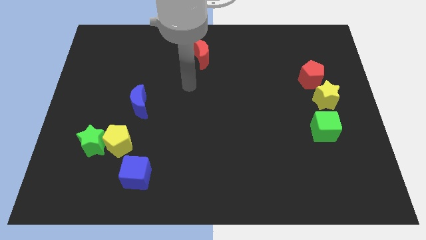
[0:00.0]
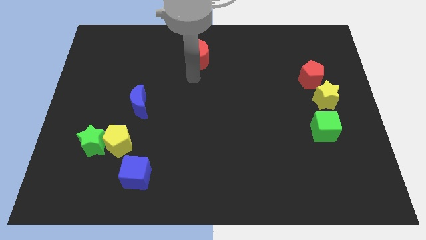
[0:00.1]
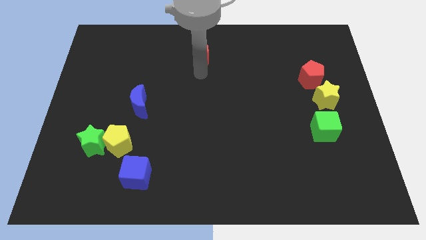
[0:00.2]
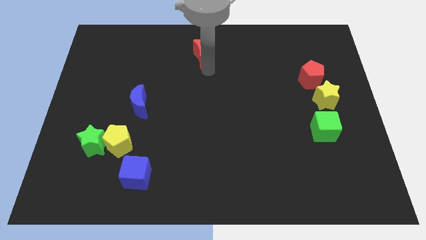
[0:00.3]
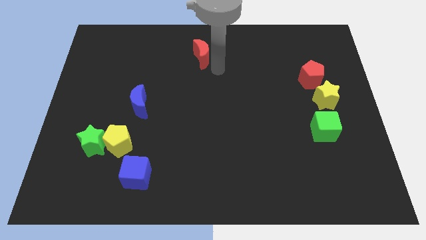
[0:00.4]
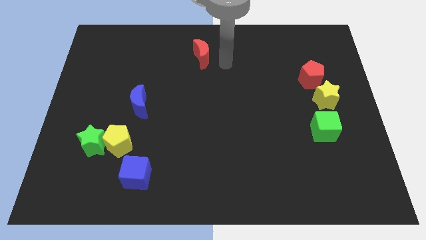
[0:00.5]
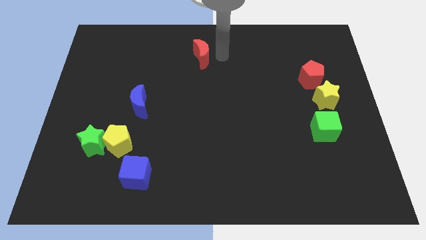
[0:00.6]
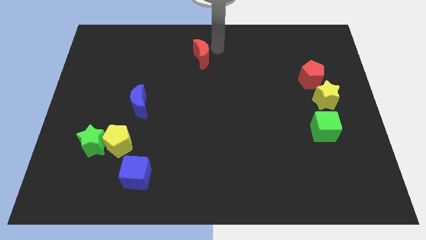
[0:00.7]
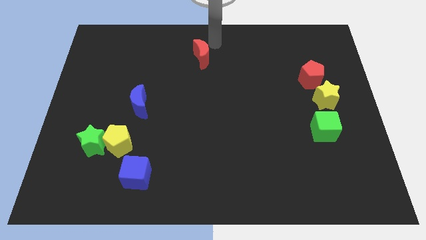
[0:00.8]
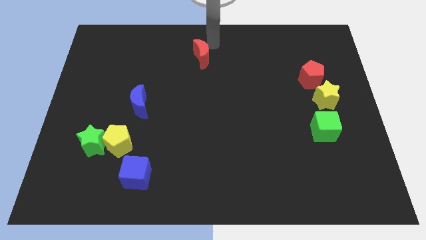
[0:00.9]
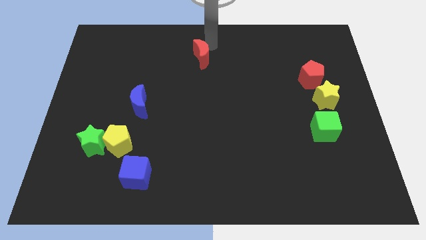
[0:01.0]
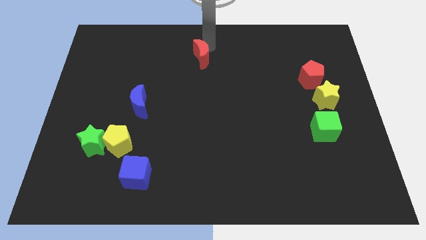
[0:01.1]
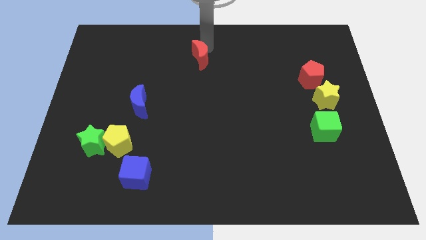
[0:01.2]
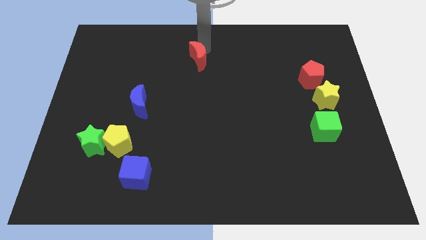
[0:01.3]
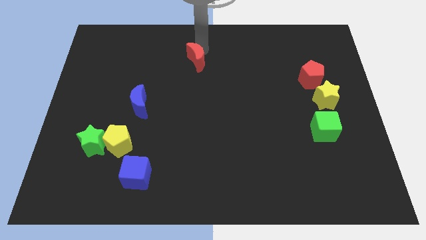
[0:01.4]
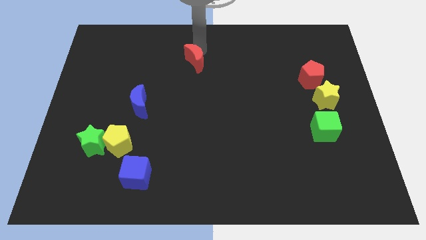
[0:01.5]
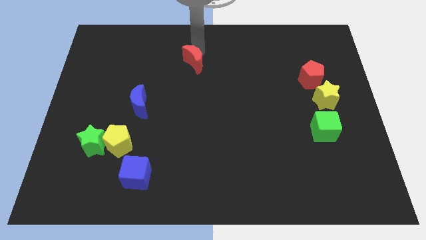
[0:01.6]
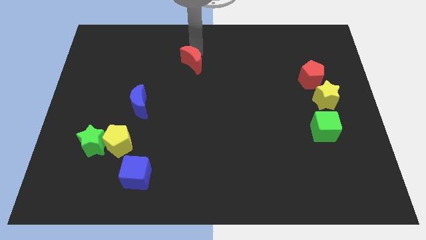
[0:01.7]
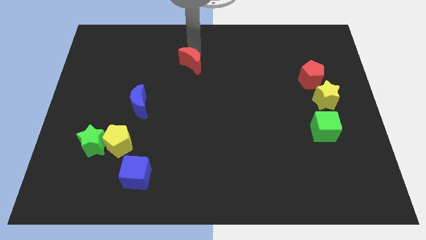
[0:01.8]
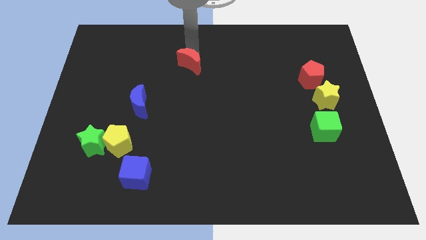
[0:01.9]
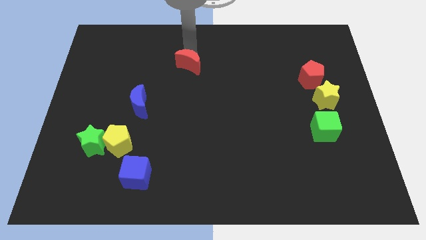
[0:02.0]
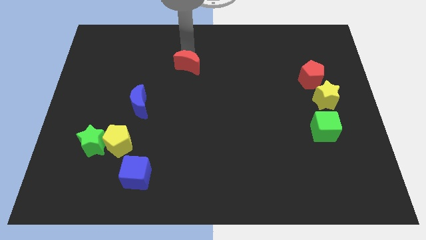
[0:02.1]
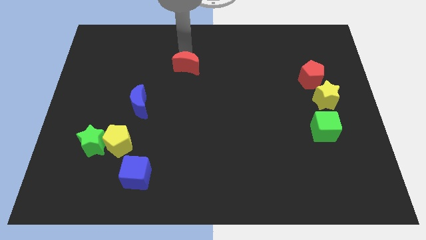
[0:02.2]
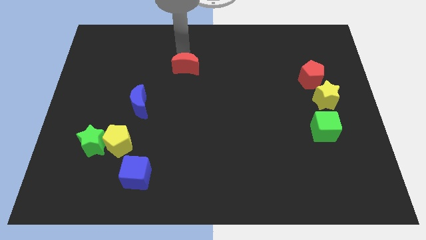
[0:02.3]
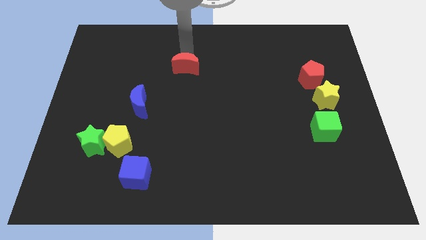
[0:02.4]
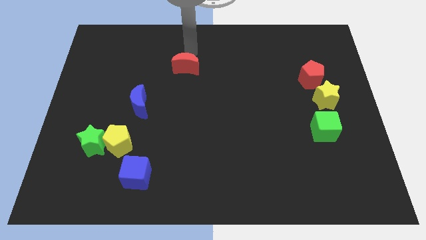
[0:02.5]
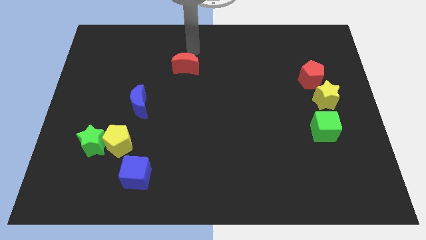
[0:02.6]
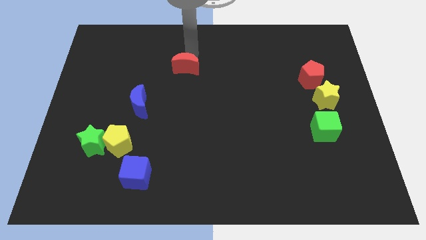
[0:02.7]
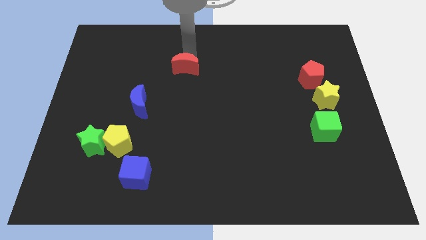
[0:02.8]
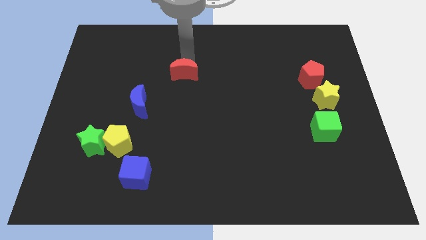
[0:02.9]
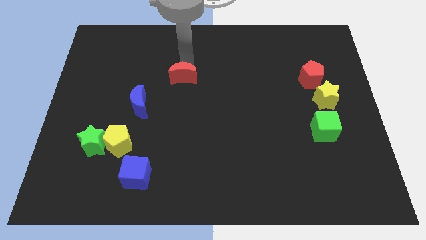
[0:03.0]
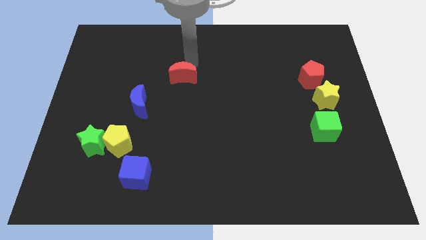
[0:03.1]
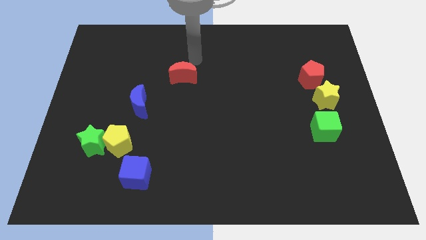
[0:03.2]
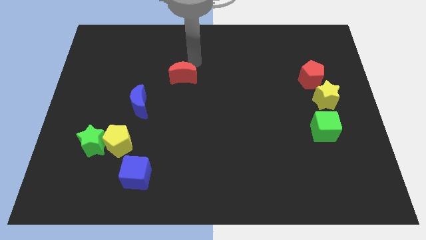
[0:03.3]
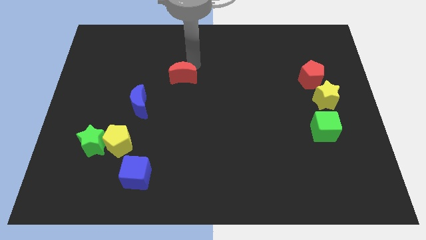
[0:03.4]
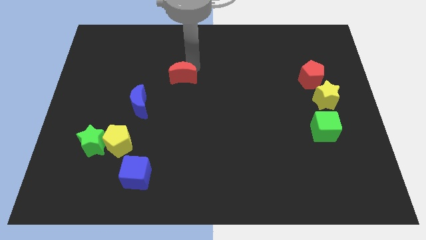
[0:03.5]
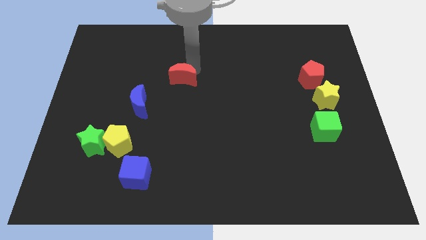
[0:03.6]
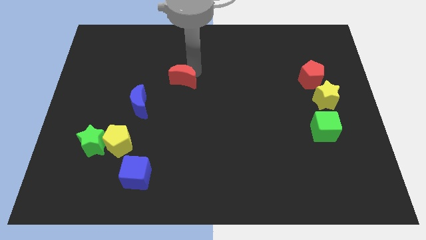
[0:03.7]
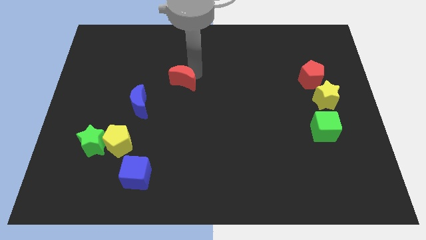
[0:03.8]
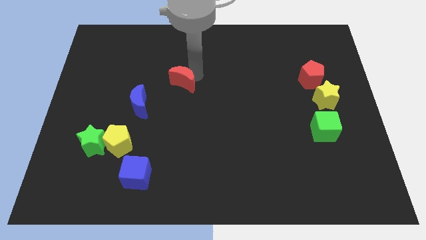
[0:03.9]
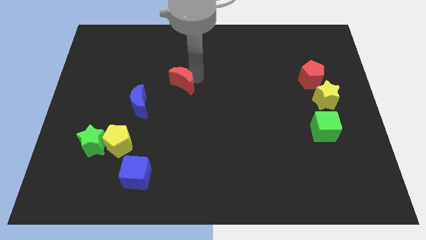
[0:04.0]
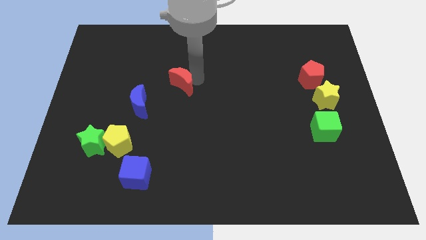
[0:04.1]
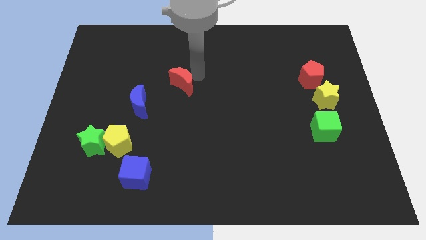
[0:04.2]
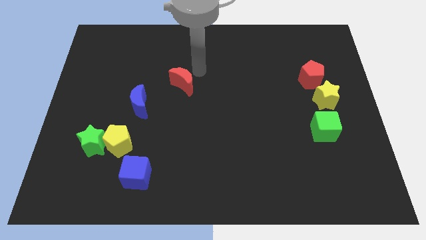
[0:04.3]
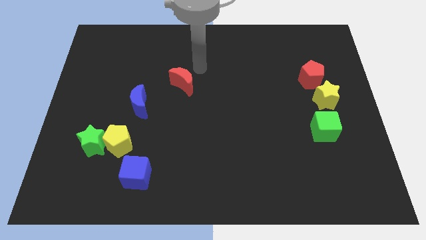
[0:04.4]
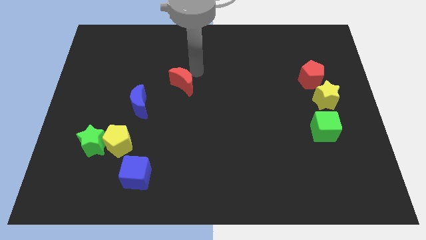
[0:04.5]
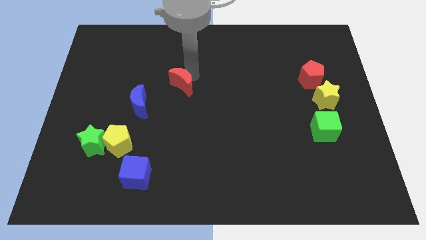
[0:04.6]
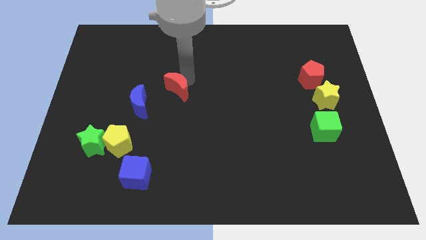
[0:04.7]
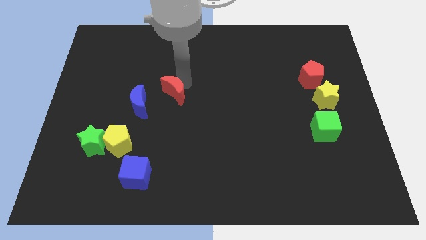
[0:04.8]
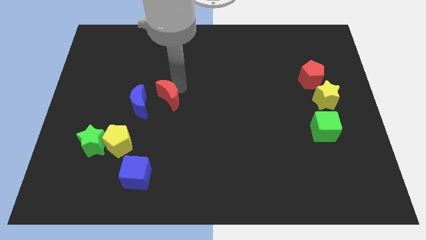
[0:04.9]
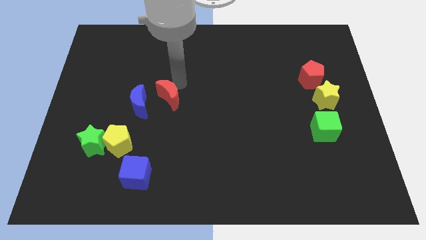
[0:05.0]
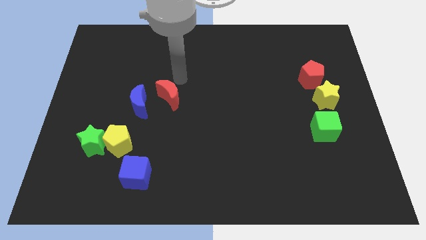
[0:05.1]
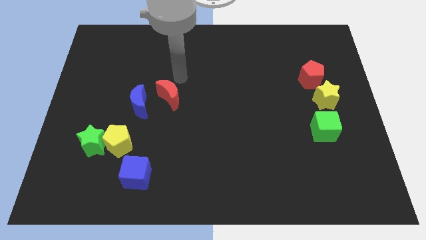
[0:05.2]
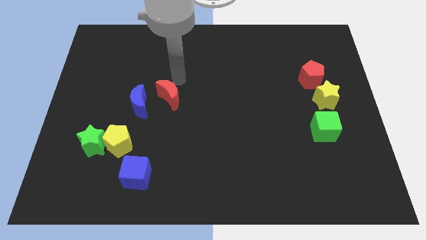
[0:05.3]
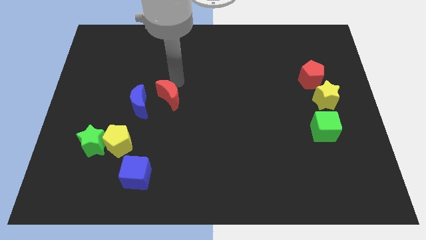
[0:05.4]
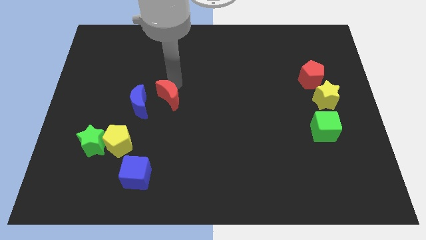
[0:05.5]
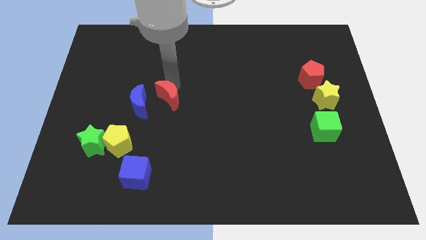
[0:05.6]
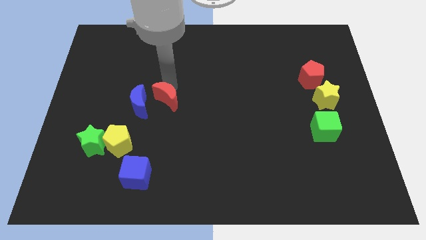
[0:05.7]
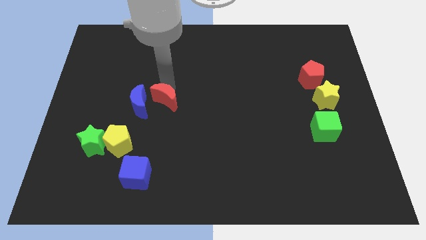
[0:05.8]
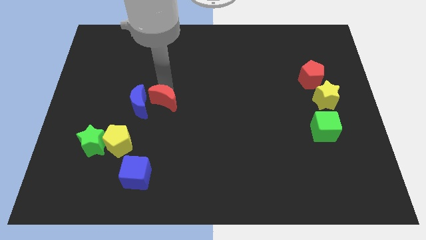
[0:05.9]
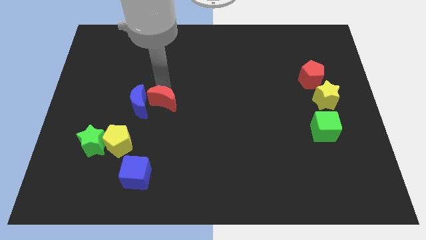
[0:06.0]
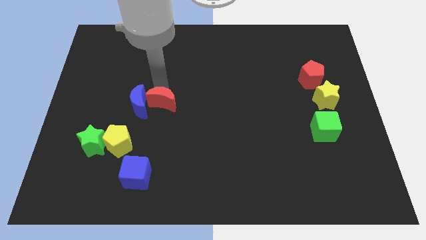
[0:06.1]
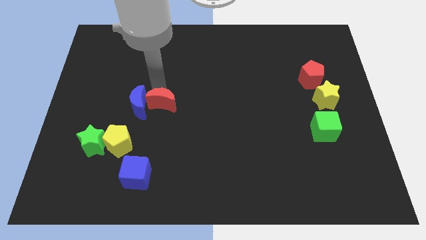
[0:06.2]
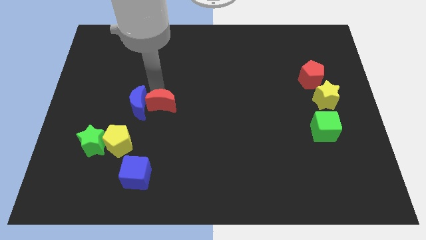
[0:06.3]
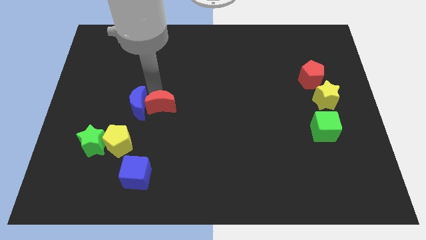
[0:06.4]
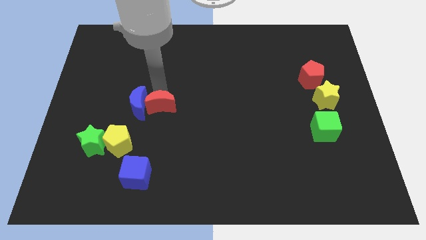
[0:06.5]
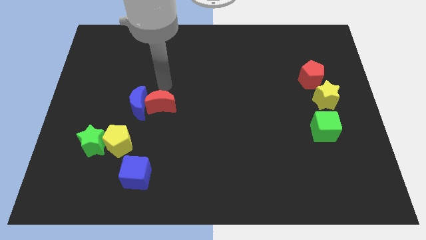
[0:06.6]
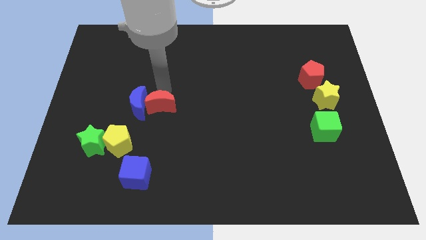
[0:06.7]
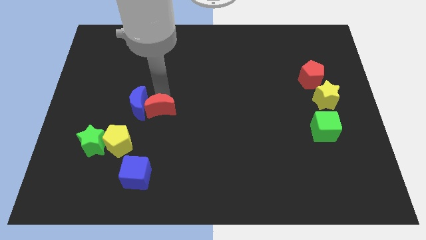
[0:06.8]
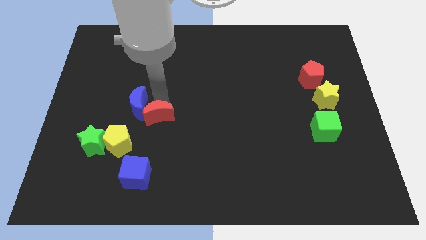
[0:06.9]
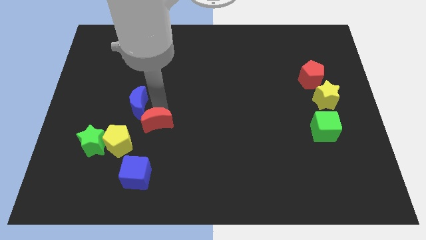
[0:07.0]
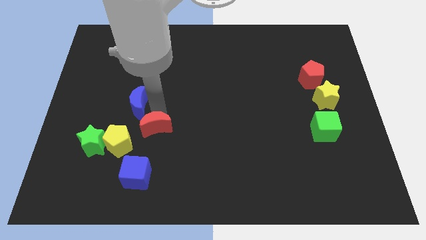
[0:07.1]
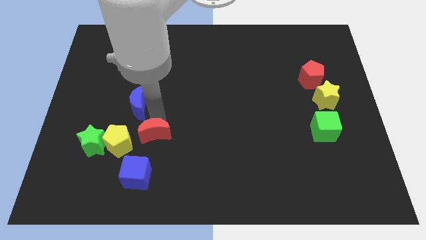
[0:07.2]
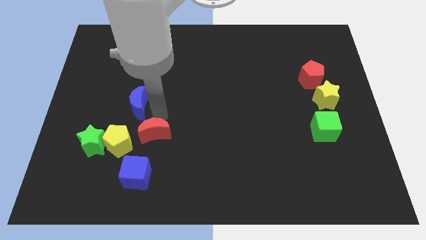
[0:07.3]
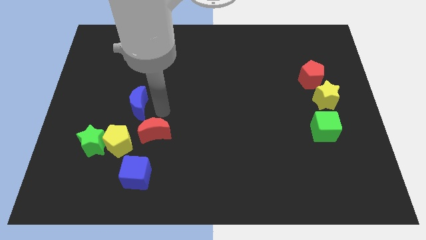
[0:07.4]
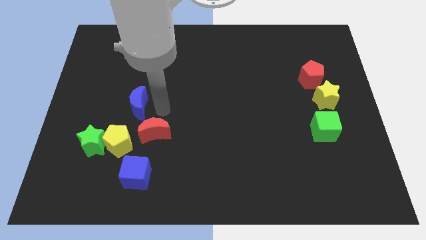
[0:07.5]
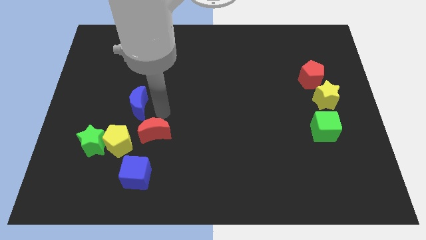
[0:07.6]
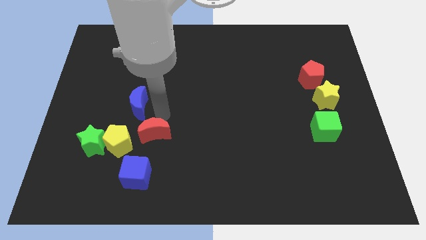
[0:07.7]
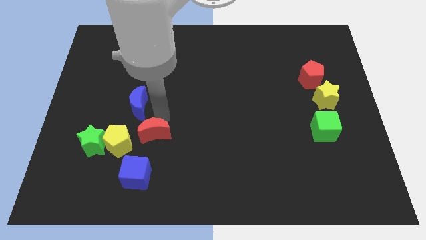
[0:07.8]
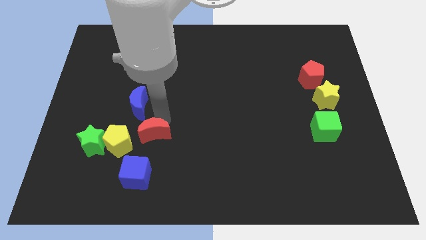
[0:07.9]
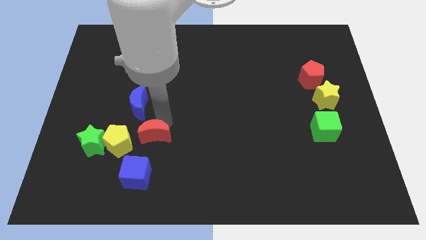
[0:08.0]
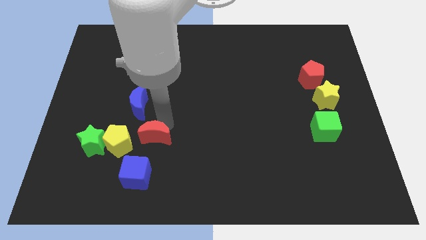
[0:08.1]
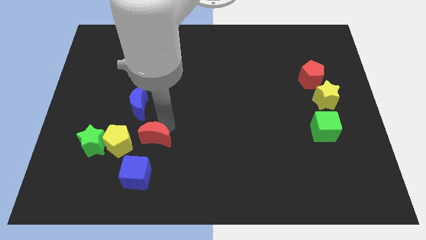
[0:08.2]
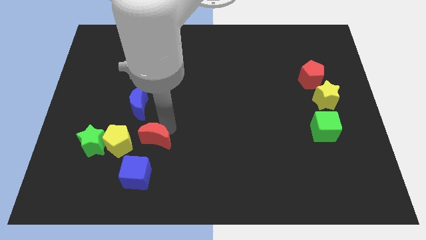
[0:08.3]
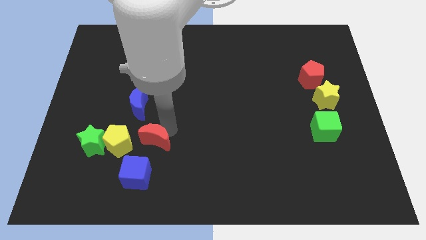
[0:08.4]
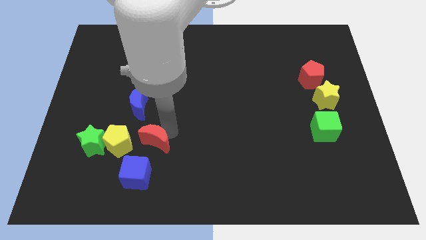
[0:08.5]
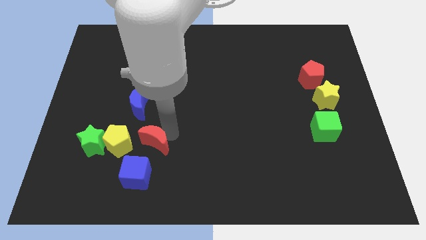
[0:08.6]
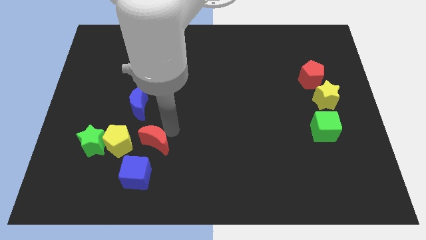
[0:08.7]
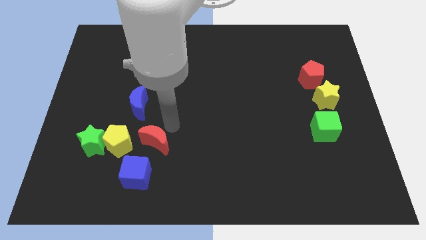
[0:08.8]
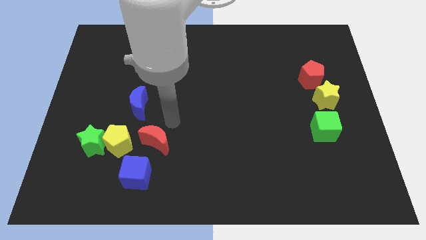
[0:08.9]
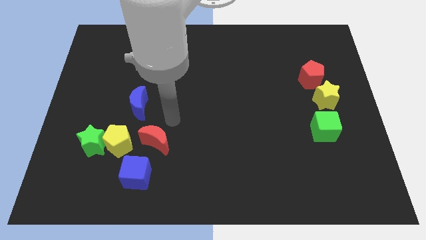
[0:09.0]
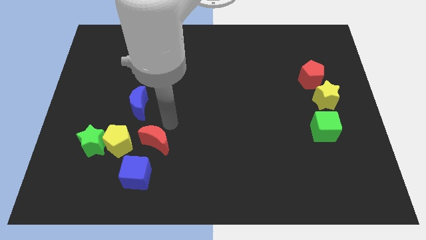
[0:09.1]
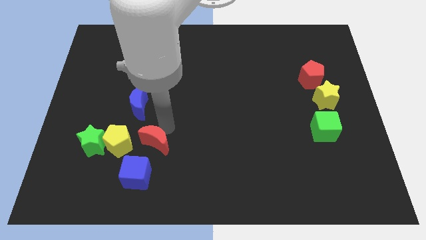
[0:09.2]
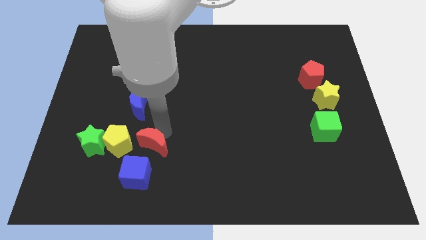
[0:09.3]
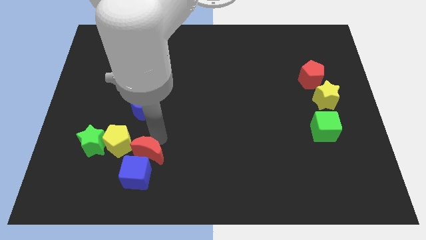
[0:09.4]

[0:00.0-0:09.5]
slide the red moon next to the blue cube
